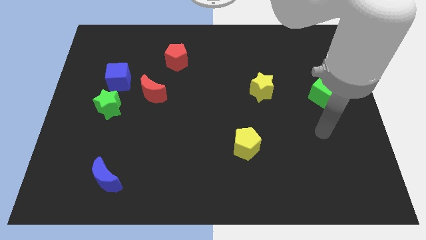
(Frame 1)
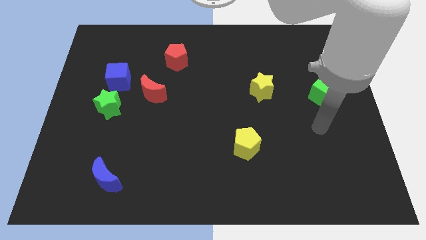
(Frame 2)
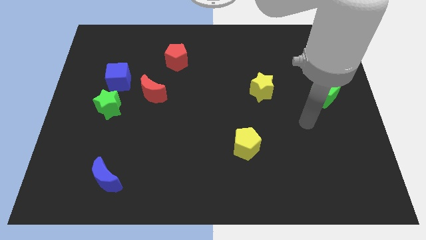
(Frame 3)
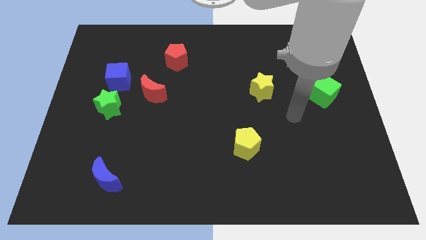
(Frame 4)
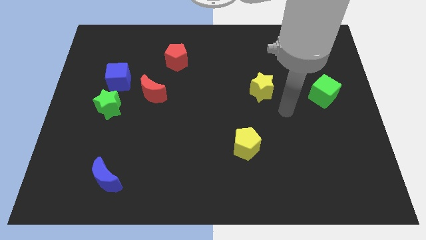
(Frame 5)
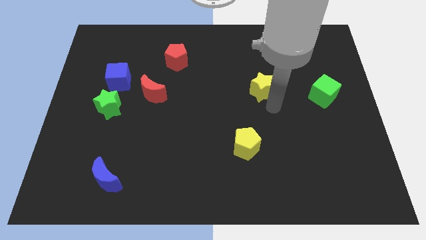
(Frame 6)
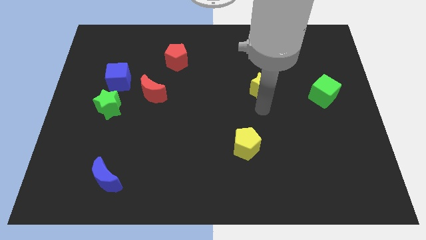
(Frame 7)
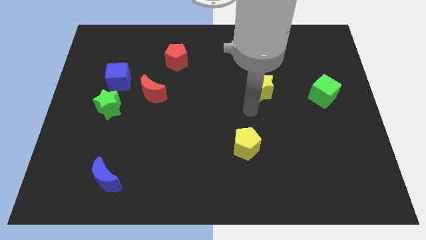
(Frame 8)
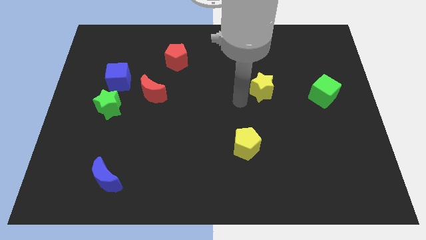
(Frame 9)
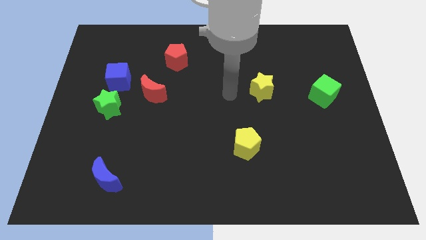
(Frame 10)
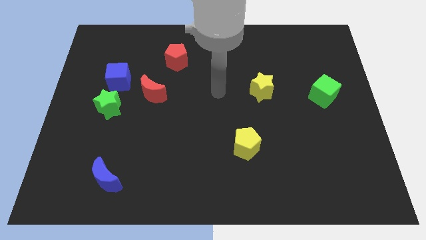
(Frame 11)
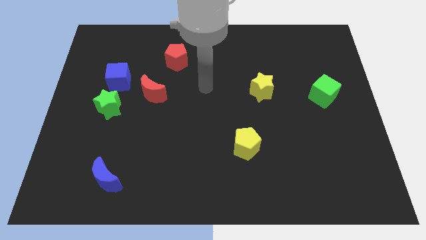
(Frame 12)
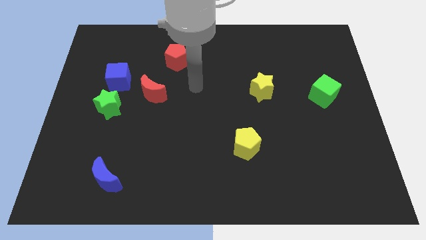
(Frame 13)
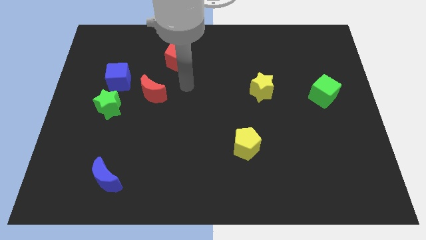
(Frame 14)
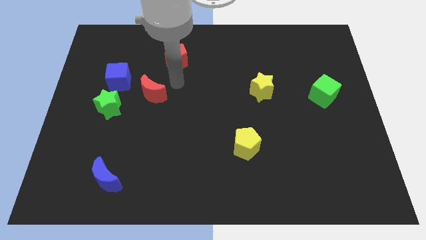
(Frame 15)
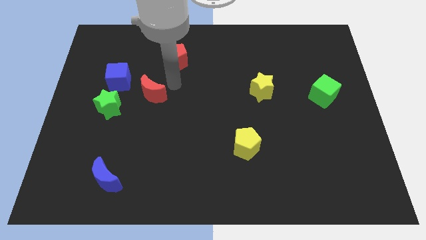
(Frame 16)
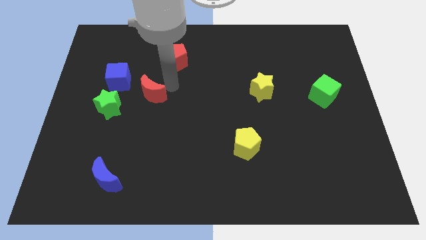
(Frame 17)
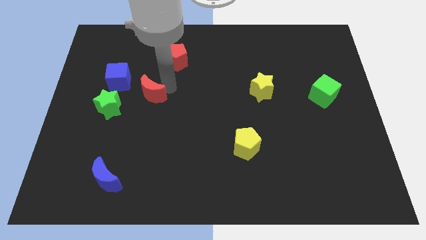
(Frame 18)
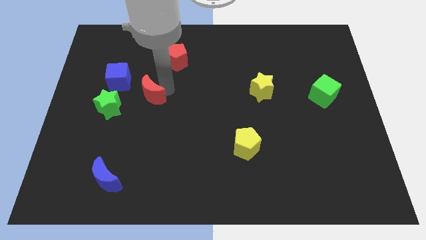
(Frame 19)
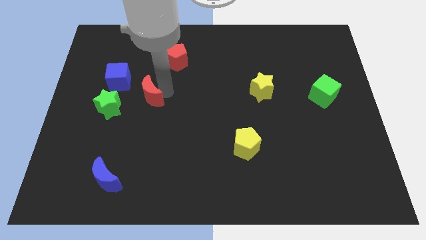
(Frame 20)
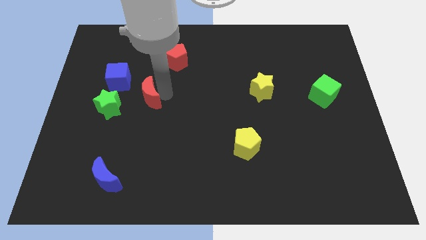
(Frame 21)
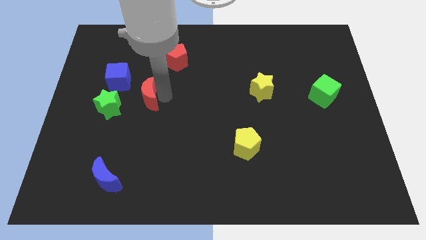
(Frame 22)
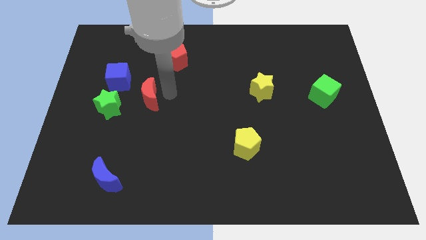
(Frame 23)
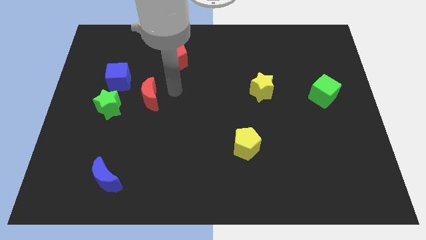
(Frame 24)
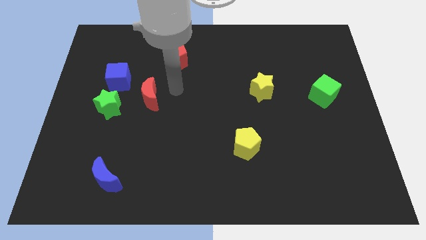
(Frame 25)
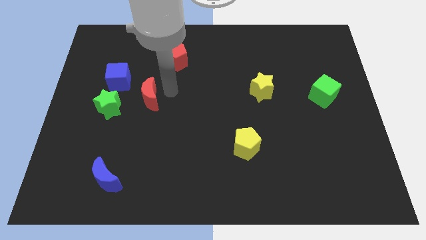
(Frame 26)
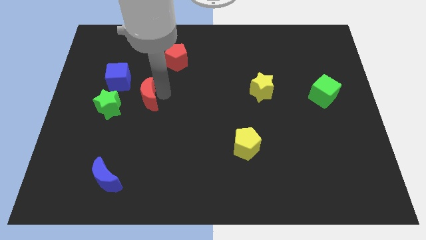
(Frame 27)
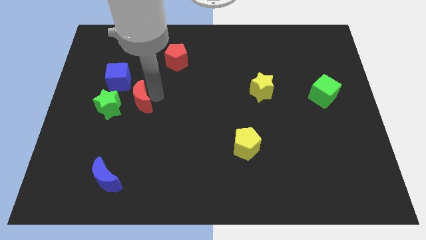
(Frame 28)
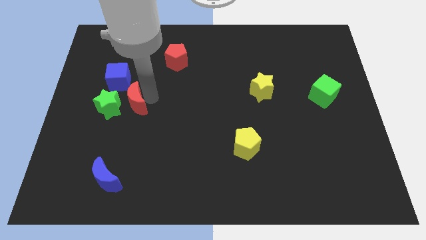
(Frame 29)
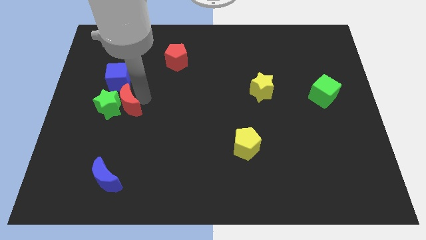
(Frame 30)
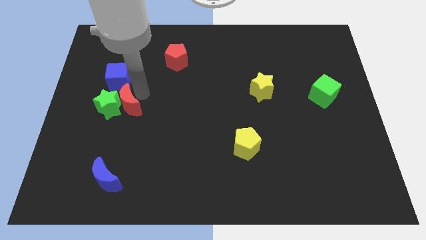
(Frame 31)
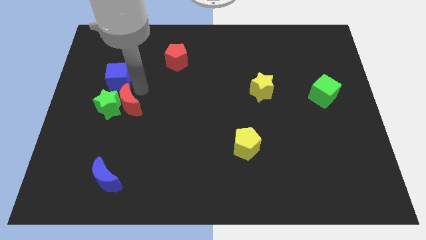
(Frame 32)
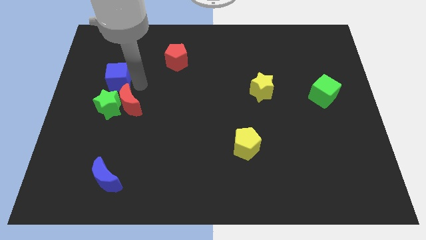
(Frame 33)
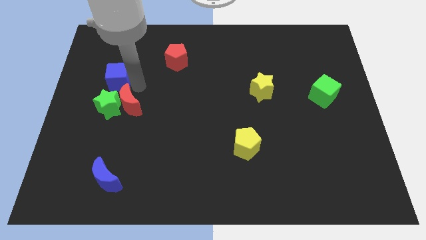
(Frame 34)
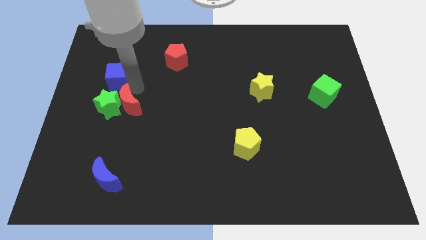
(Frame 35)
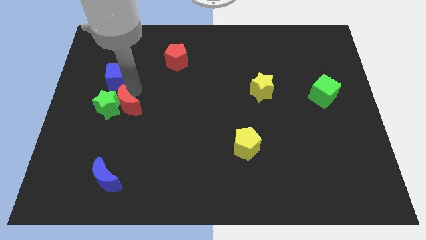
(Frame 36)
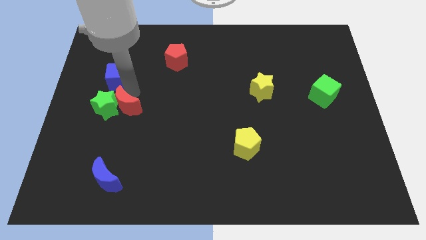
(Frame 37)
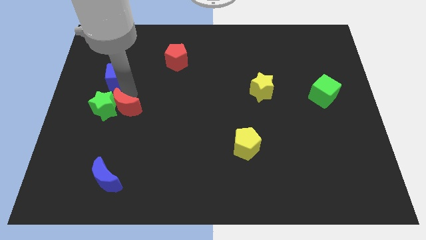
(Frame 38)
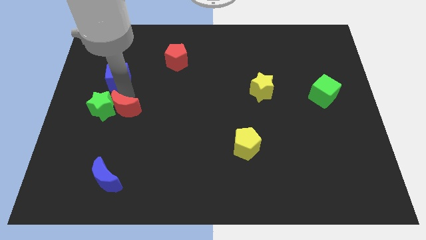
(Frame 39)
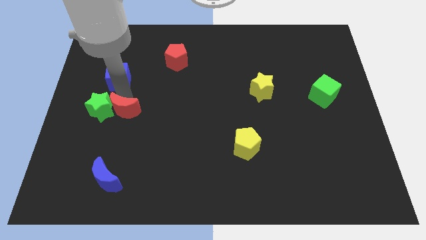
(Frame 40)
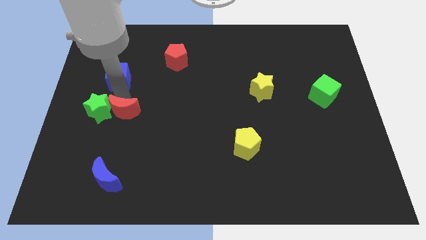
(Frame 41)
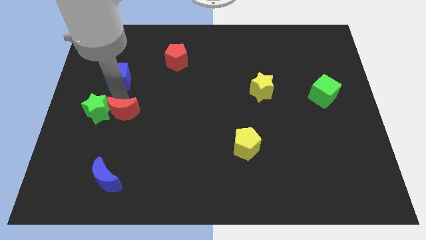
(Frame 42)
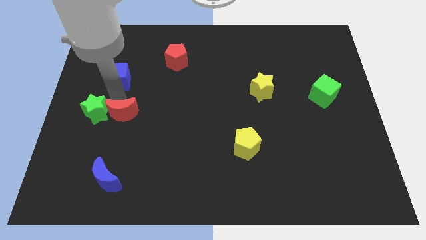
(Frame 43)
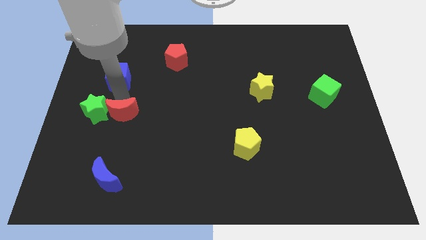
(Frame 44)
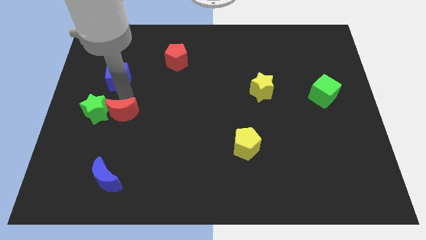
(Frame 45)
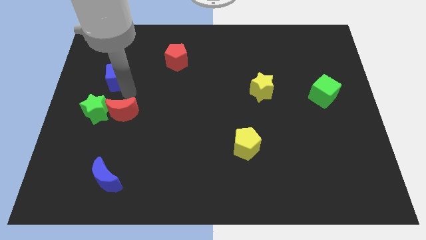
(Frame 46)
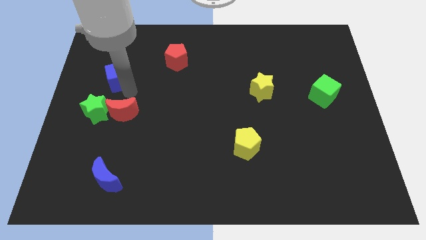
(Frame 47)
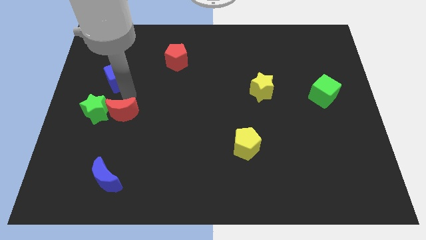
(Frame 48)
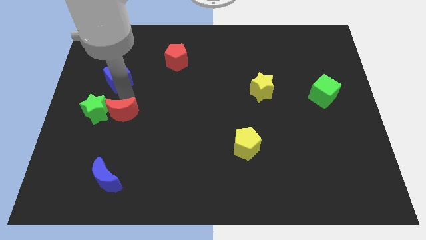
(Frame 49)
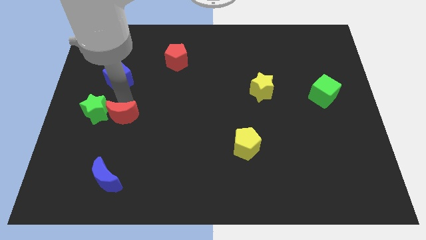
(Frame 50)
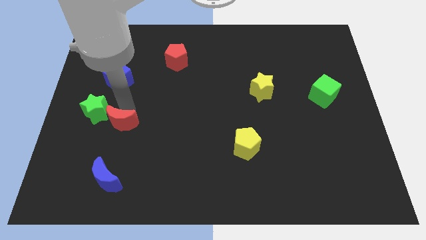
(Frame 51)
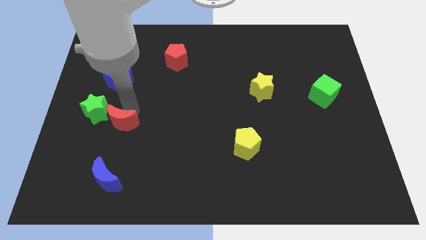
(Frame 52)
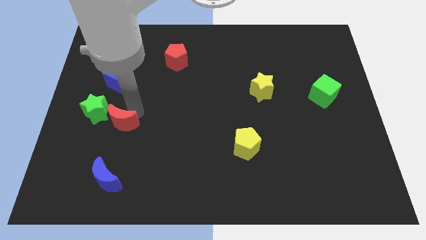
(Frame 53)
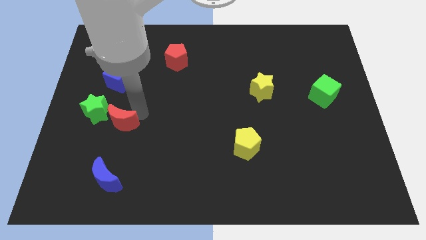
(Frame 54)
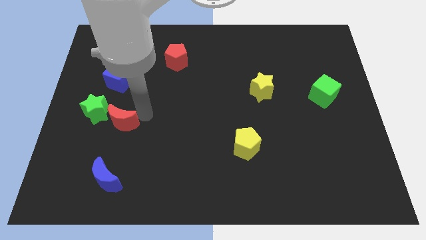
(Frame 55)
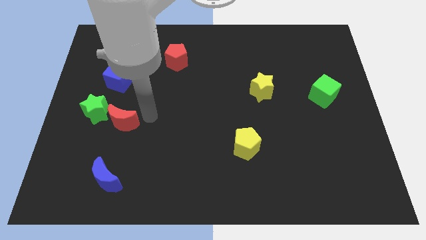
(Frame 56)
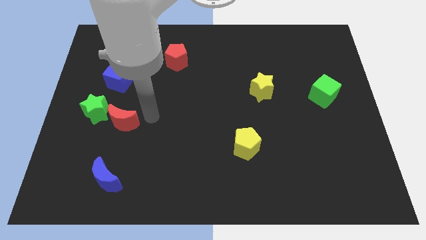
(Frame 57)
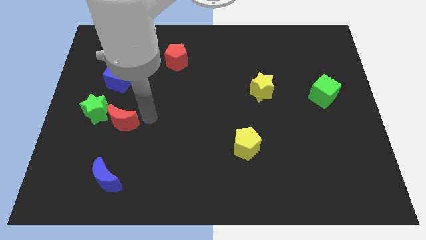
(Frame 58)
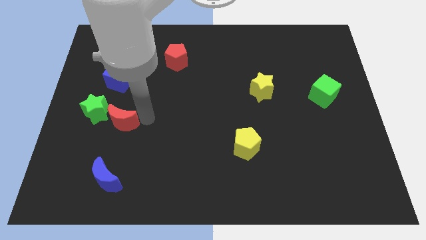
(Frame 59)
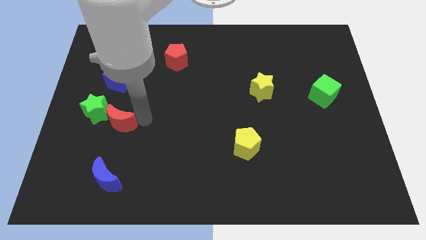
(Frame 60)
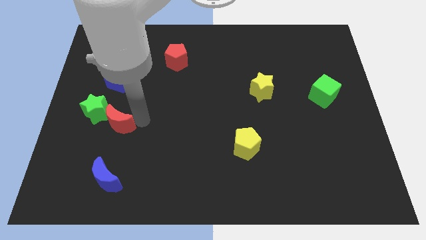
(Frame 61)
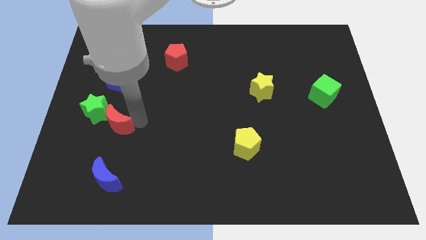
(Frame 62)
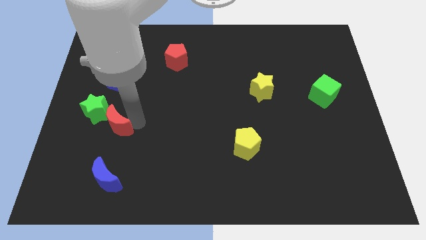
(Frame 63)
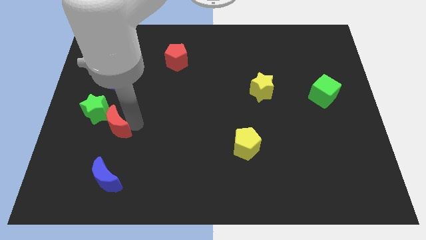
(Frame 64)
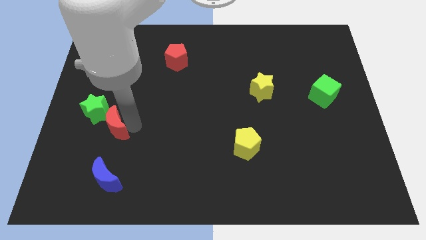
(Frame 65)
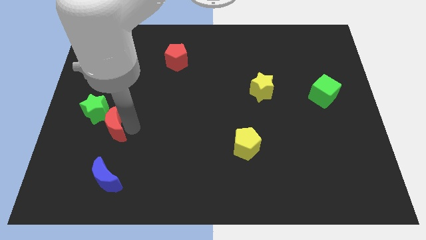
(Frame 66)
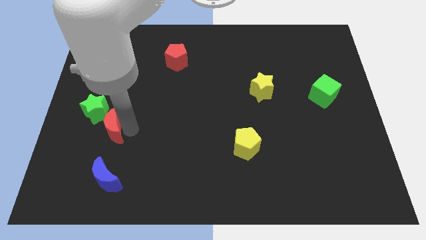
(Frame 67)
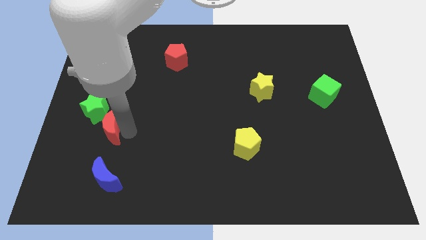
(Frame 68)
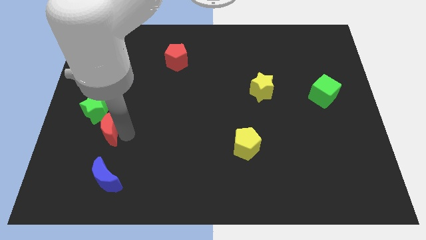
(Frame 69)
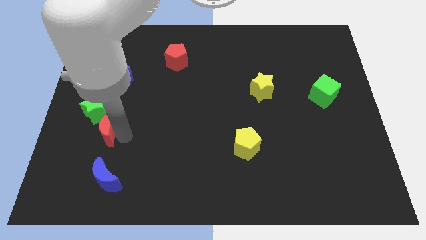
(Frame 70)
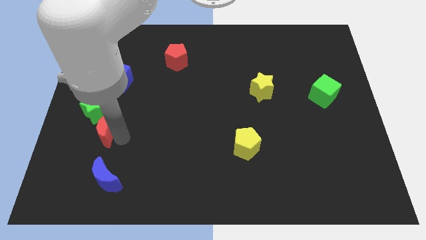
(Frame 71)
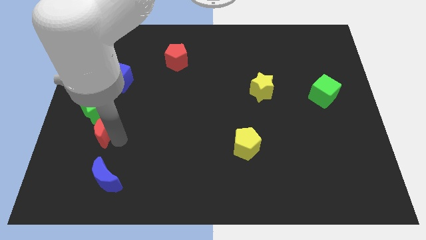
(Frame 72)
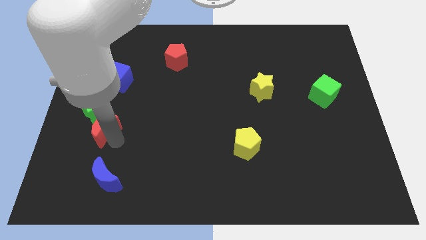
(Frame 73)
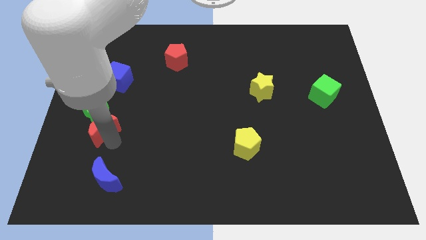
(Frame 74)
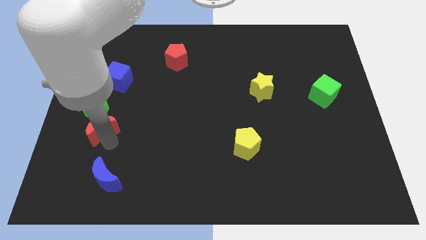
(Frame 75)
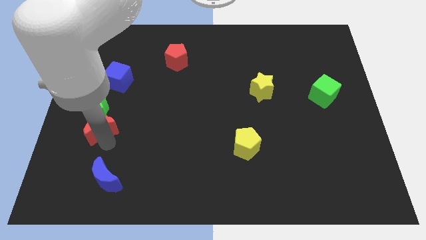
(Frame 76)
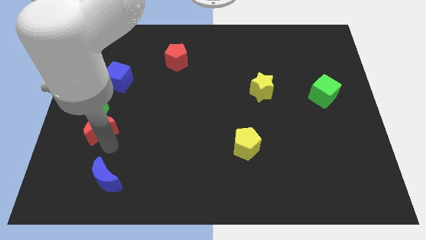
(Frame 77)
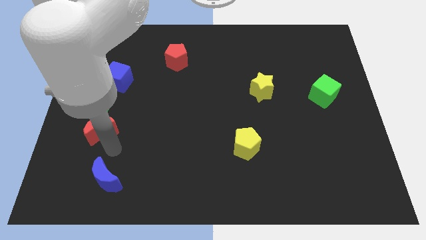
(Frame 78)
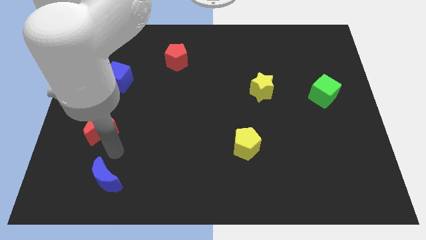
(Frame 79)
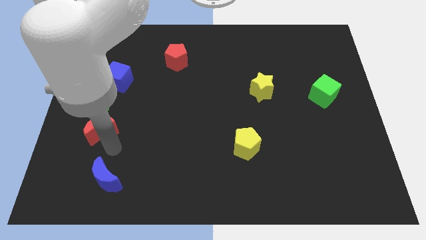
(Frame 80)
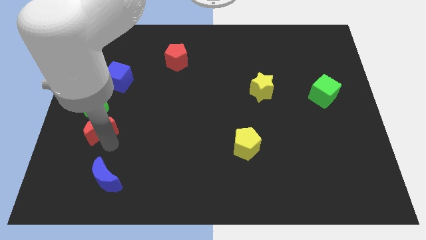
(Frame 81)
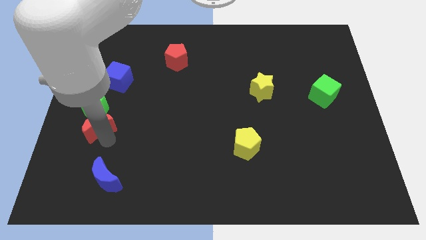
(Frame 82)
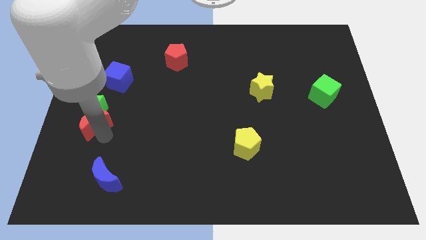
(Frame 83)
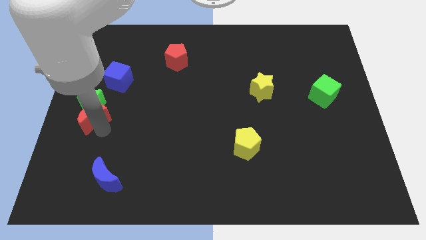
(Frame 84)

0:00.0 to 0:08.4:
push the red moon to the left side of the board
